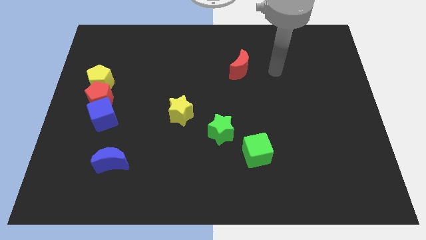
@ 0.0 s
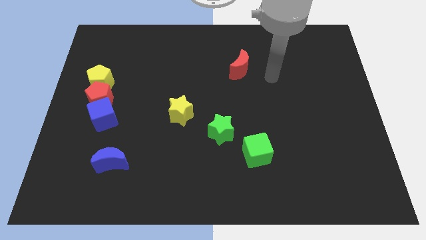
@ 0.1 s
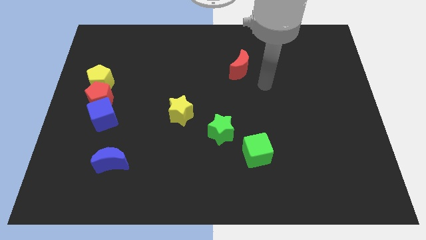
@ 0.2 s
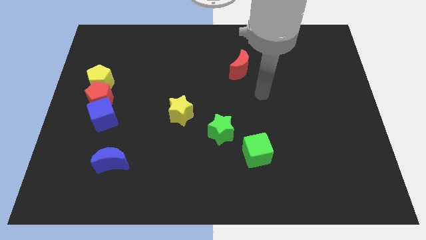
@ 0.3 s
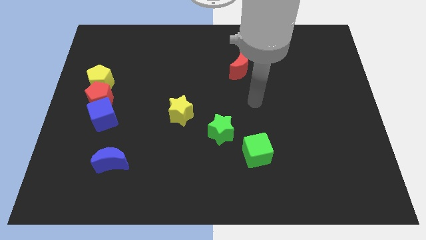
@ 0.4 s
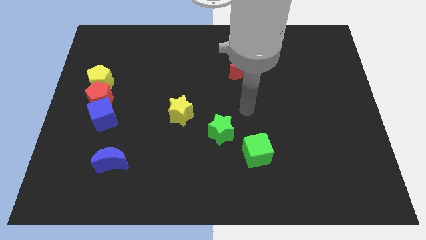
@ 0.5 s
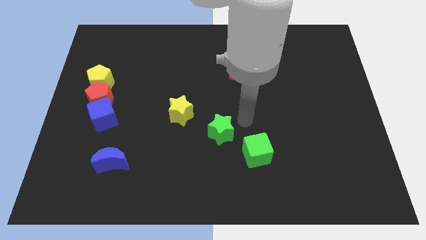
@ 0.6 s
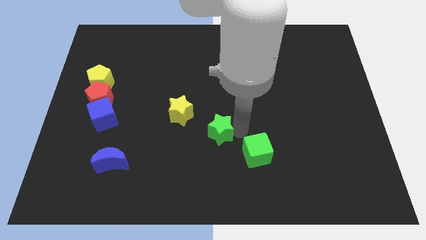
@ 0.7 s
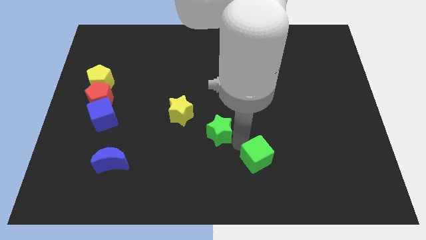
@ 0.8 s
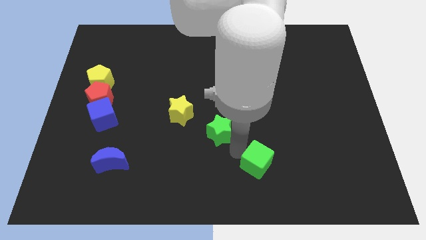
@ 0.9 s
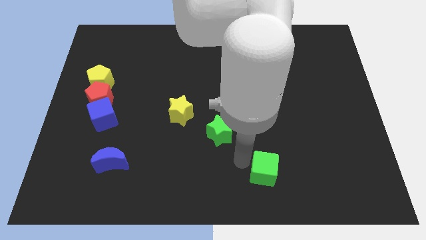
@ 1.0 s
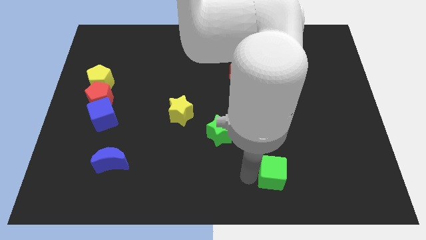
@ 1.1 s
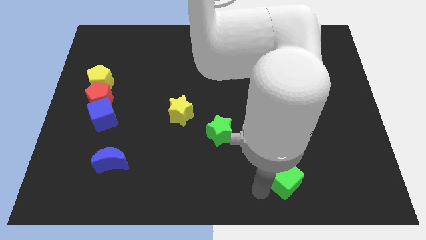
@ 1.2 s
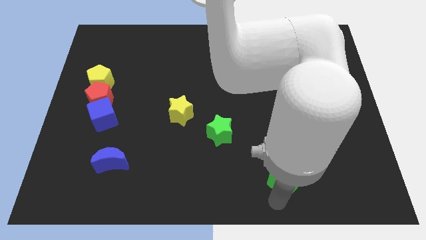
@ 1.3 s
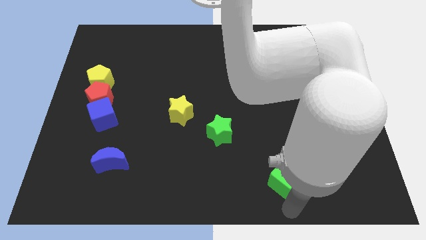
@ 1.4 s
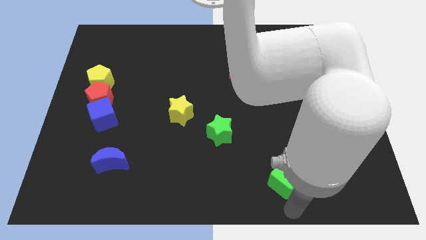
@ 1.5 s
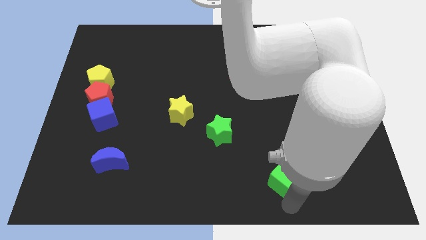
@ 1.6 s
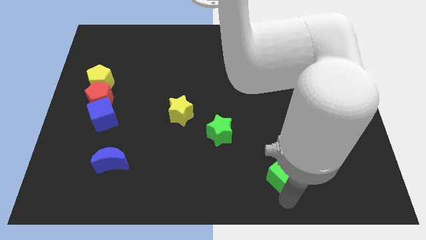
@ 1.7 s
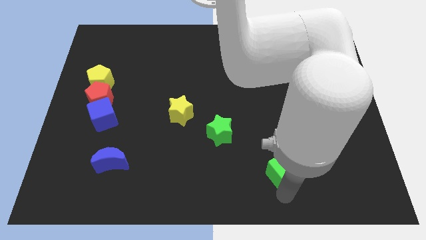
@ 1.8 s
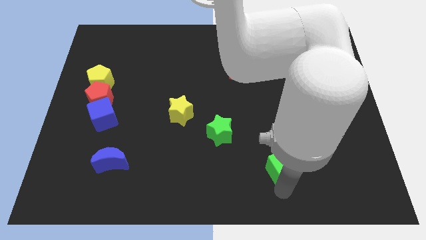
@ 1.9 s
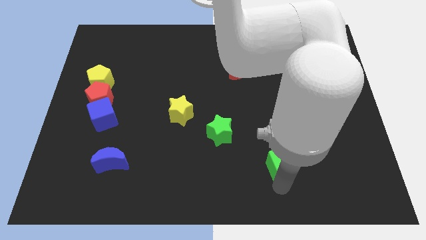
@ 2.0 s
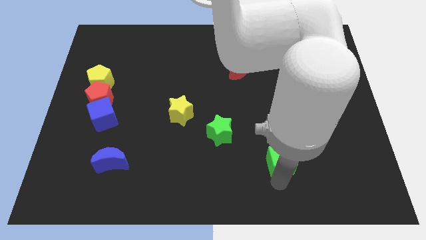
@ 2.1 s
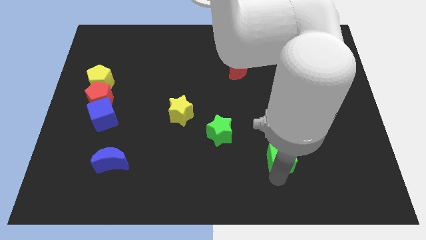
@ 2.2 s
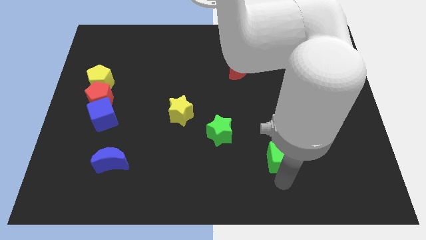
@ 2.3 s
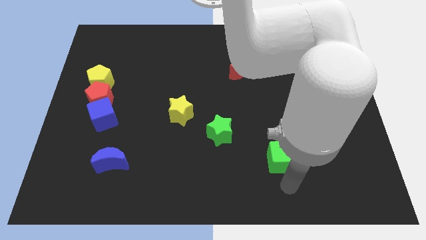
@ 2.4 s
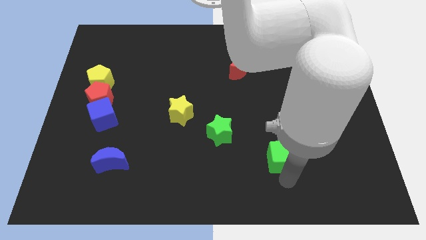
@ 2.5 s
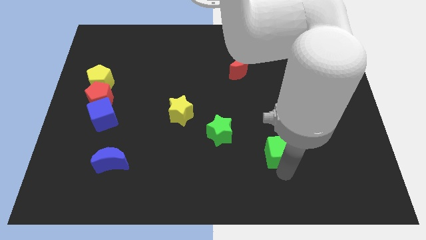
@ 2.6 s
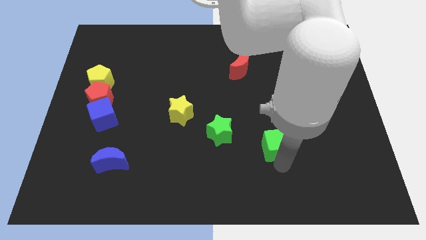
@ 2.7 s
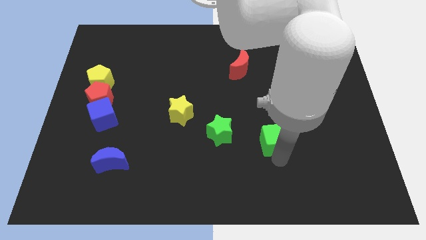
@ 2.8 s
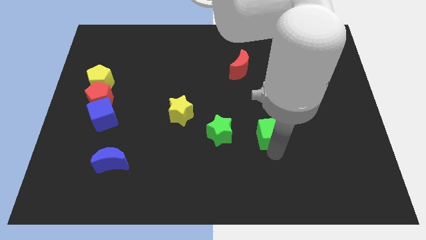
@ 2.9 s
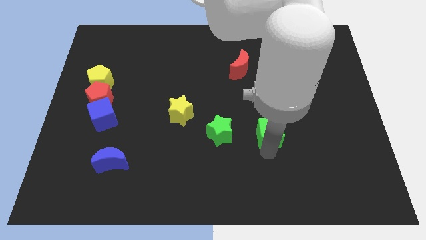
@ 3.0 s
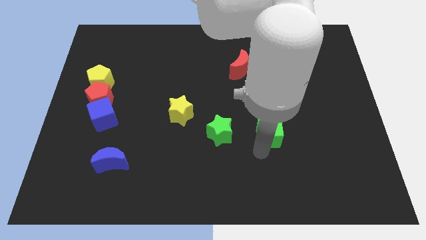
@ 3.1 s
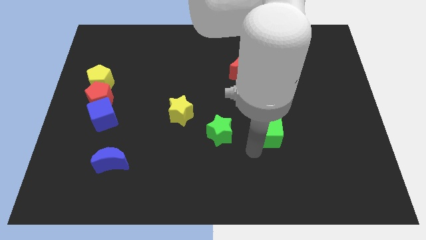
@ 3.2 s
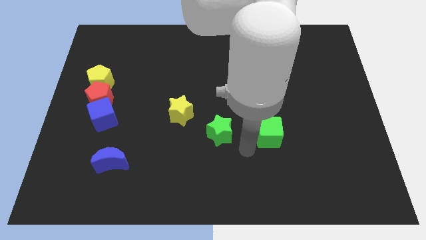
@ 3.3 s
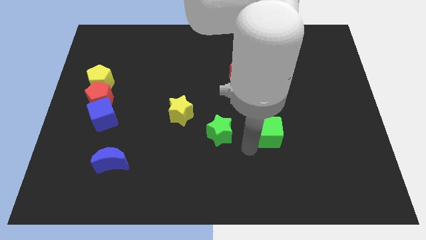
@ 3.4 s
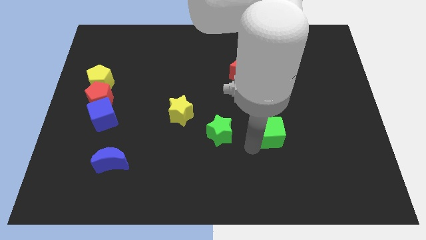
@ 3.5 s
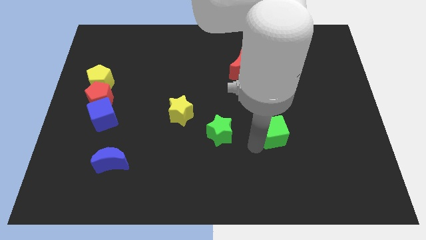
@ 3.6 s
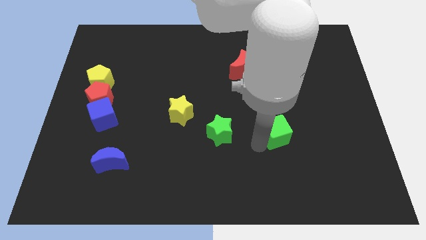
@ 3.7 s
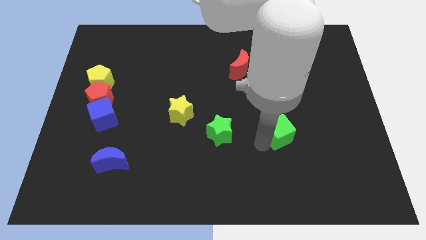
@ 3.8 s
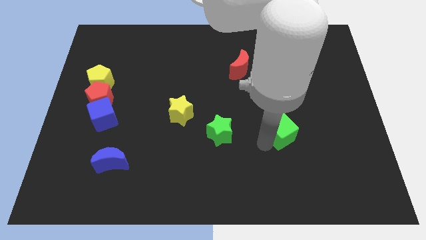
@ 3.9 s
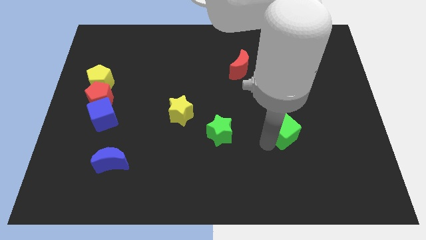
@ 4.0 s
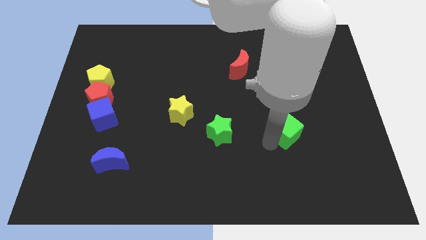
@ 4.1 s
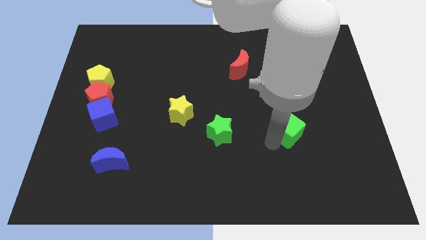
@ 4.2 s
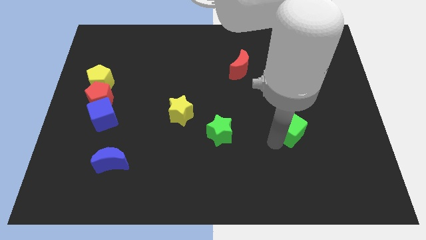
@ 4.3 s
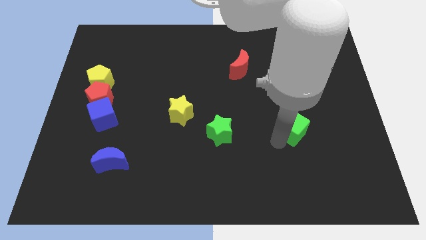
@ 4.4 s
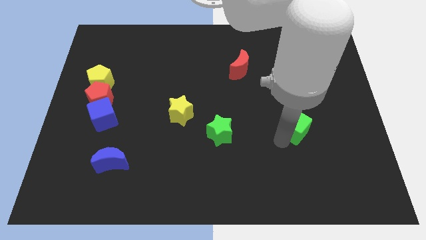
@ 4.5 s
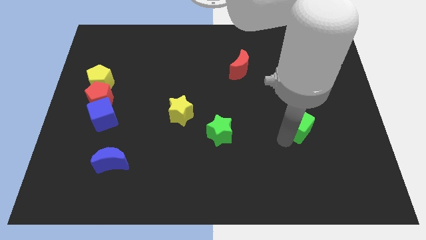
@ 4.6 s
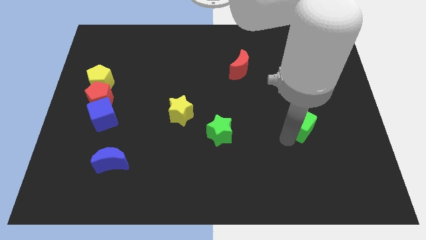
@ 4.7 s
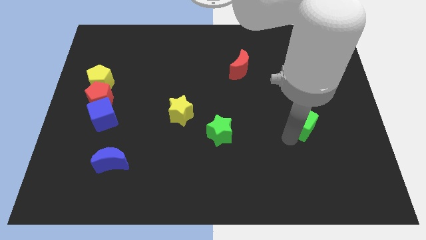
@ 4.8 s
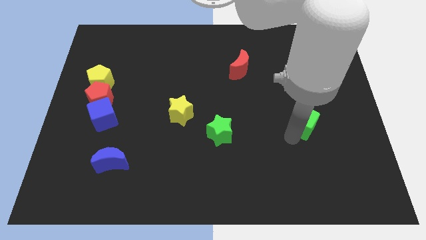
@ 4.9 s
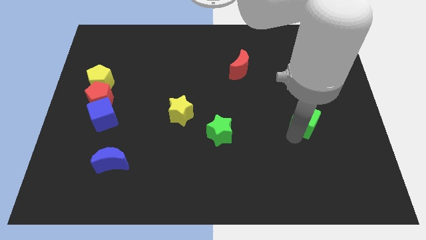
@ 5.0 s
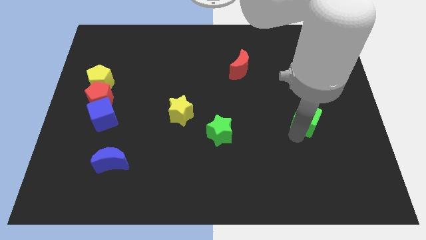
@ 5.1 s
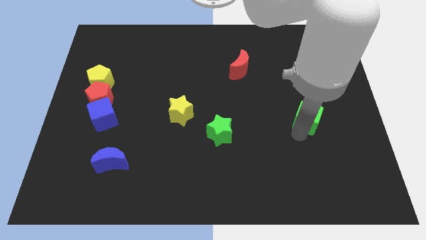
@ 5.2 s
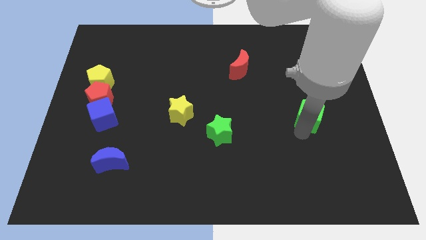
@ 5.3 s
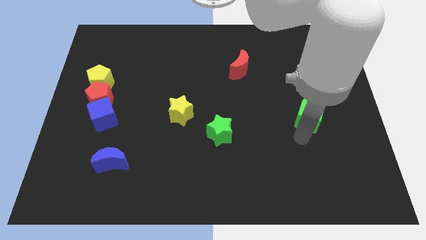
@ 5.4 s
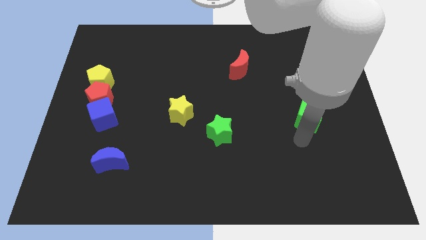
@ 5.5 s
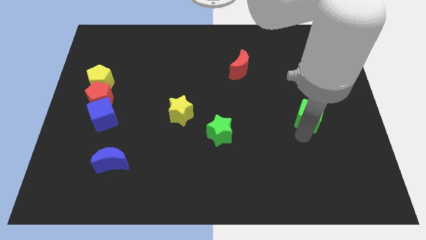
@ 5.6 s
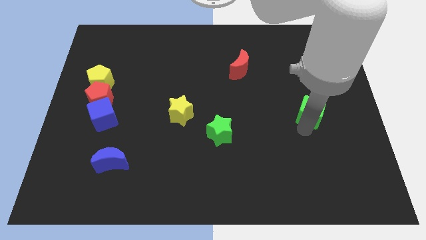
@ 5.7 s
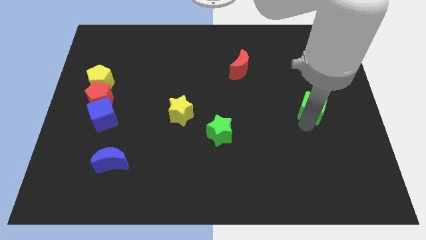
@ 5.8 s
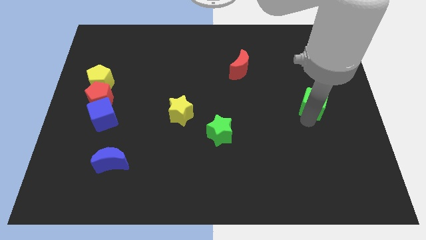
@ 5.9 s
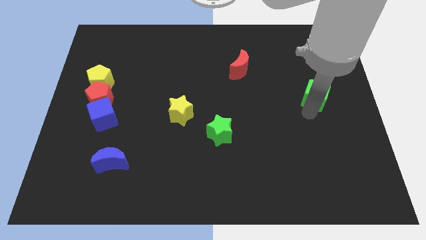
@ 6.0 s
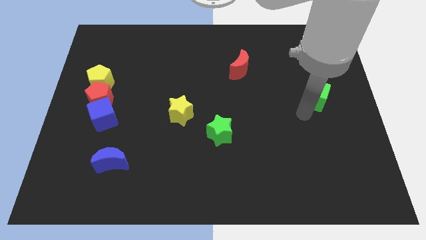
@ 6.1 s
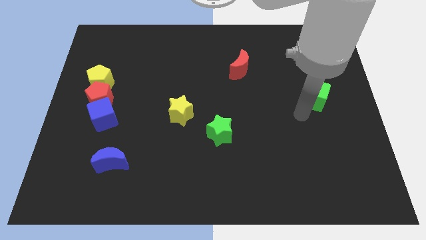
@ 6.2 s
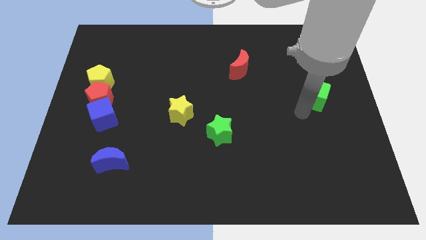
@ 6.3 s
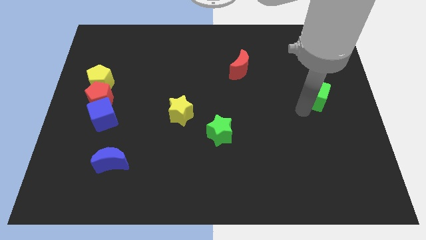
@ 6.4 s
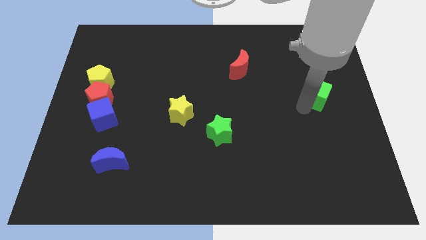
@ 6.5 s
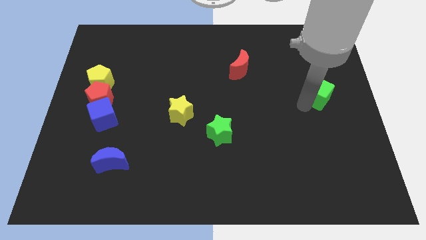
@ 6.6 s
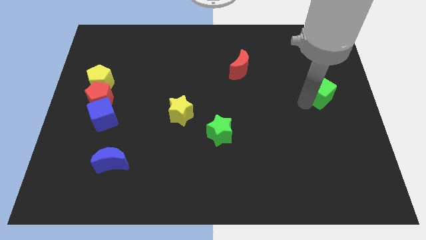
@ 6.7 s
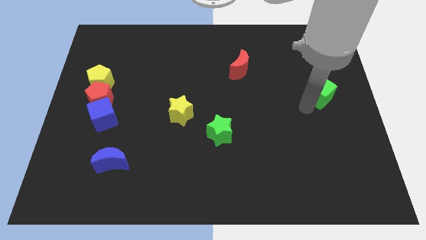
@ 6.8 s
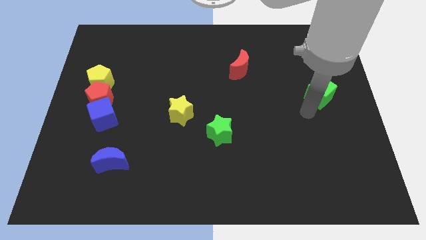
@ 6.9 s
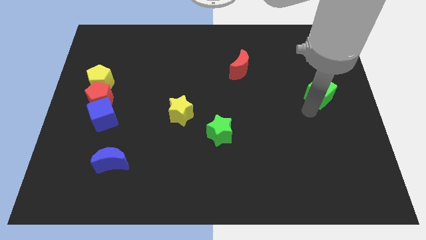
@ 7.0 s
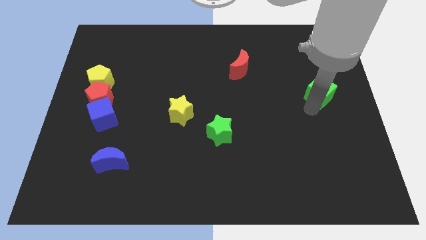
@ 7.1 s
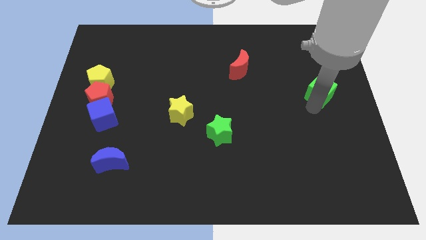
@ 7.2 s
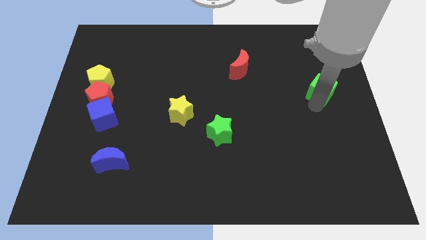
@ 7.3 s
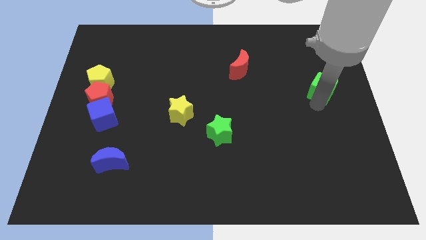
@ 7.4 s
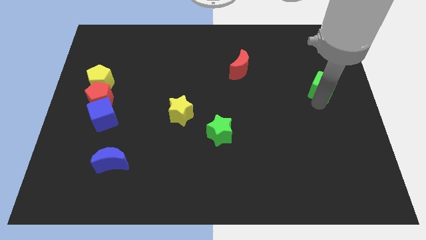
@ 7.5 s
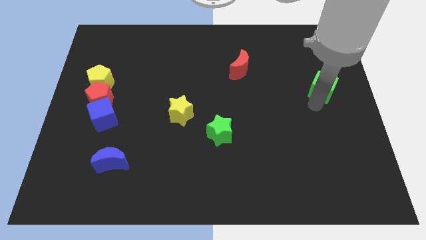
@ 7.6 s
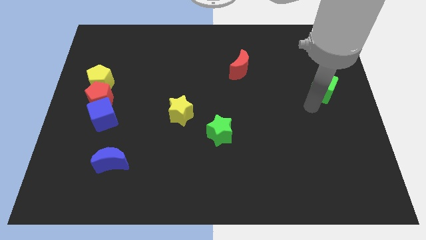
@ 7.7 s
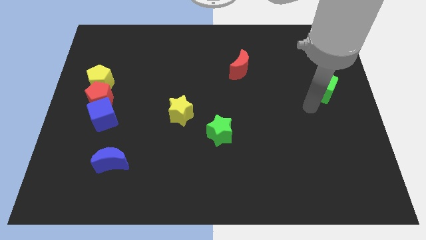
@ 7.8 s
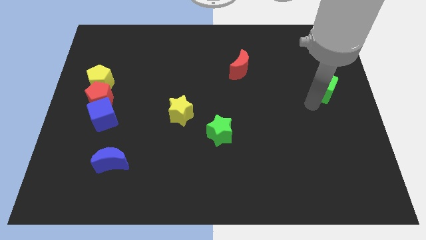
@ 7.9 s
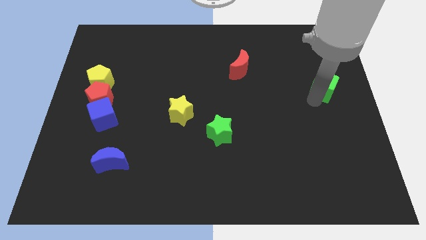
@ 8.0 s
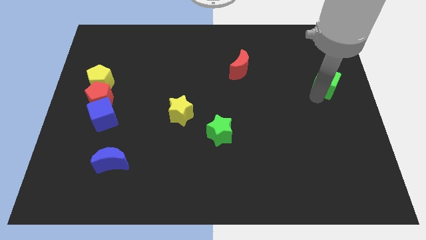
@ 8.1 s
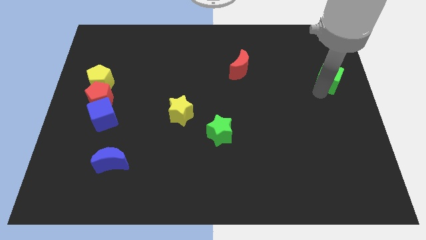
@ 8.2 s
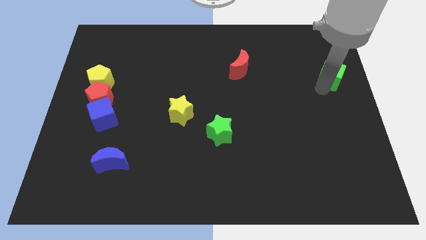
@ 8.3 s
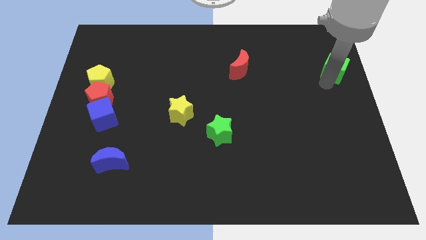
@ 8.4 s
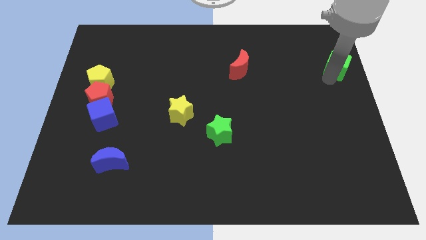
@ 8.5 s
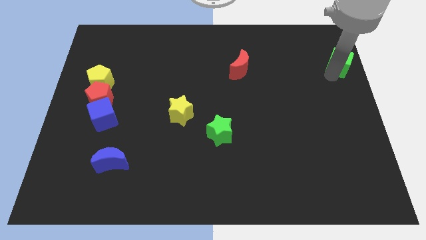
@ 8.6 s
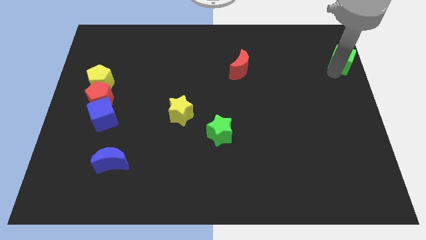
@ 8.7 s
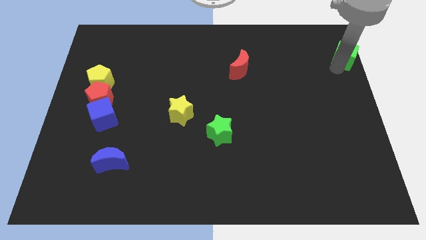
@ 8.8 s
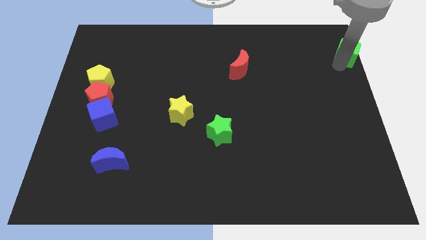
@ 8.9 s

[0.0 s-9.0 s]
put the green cube to the top right
